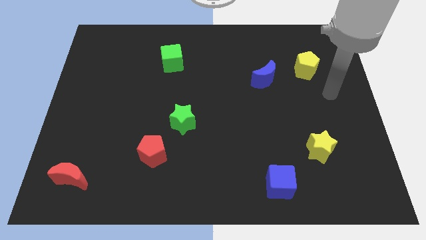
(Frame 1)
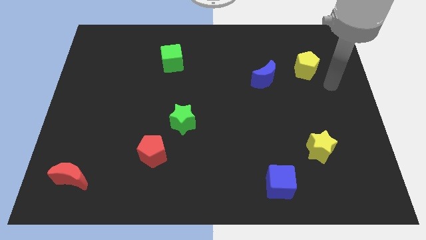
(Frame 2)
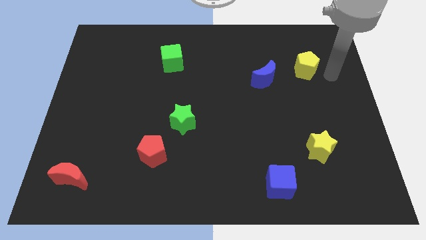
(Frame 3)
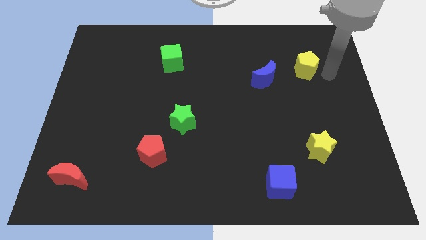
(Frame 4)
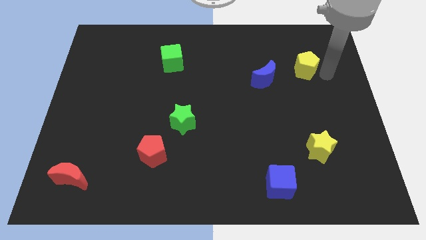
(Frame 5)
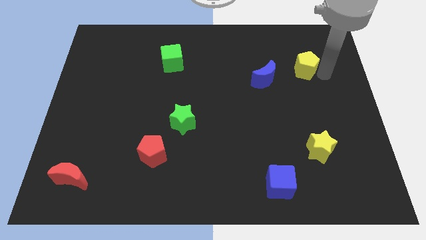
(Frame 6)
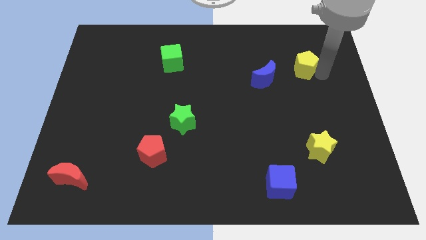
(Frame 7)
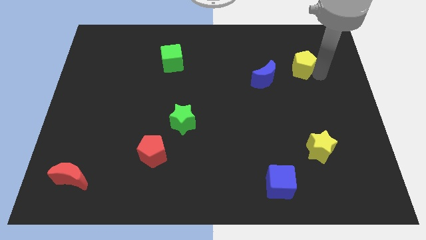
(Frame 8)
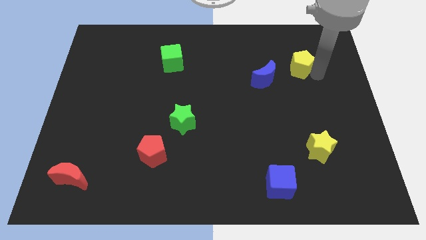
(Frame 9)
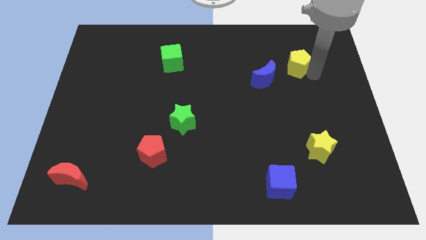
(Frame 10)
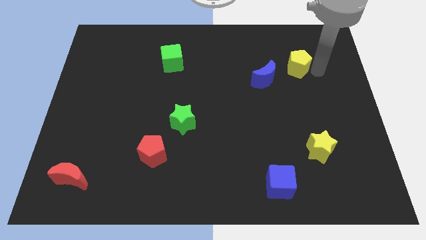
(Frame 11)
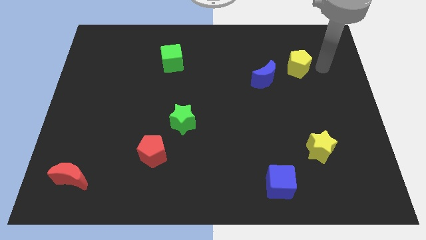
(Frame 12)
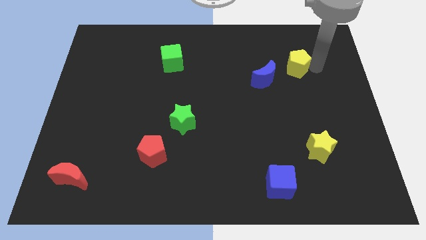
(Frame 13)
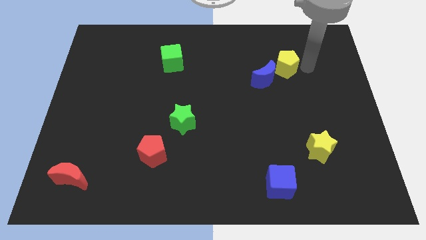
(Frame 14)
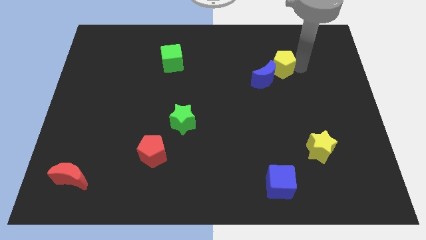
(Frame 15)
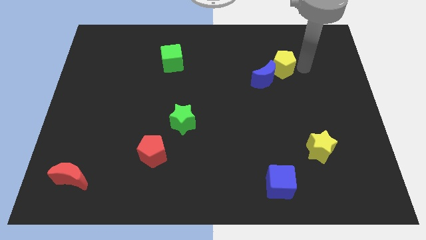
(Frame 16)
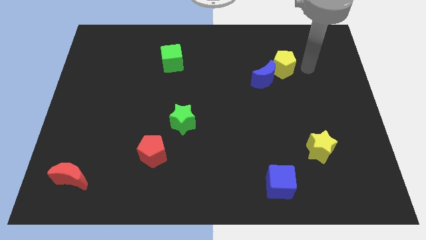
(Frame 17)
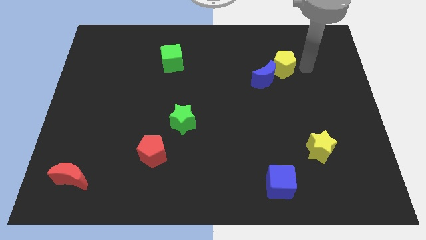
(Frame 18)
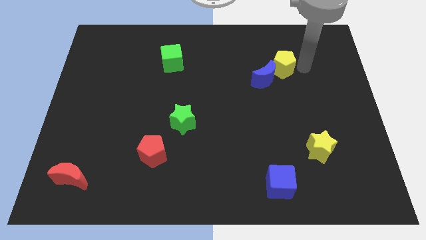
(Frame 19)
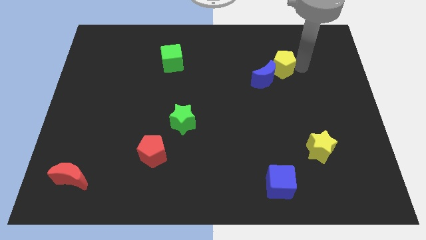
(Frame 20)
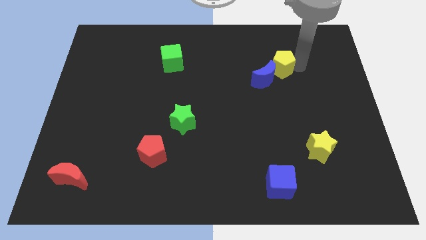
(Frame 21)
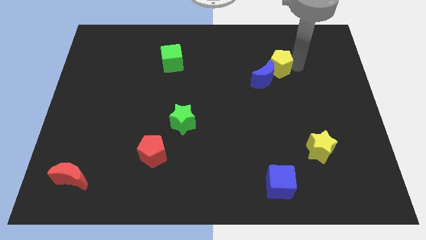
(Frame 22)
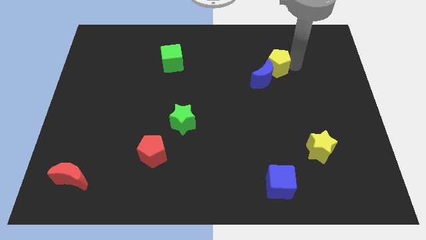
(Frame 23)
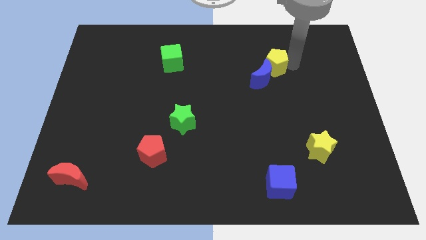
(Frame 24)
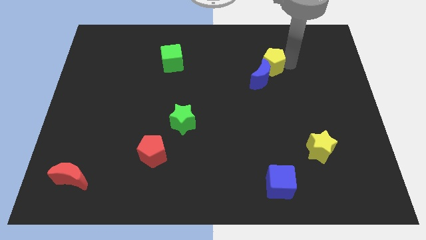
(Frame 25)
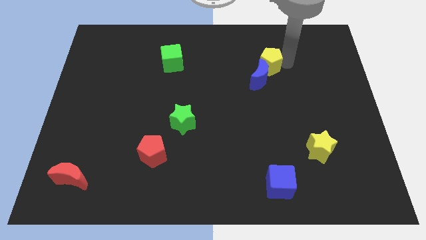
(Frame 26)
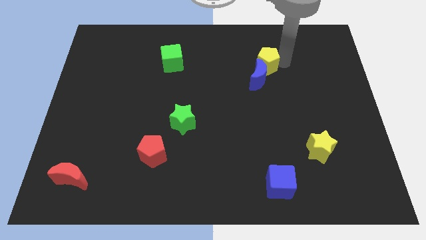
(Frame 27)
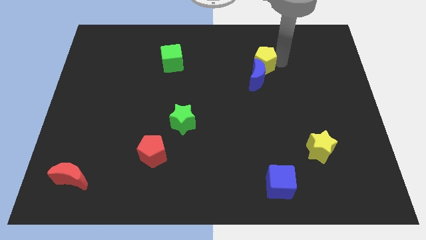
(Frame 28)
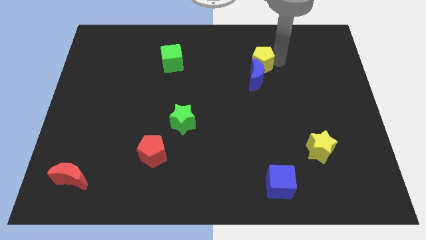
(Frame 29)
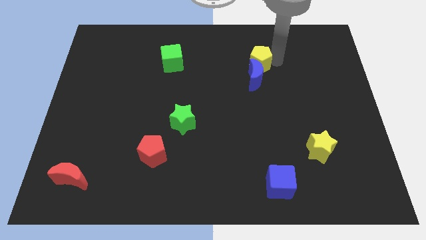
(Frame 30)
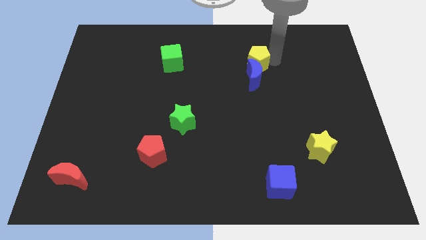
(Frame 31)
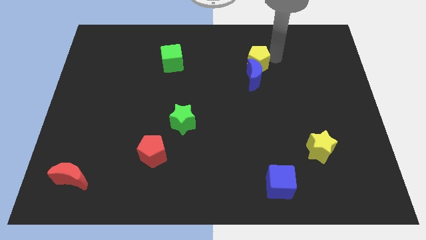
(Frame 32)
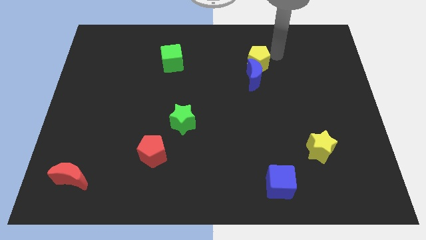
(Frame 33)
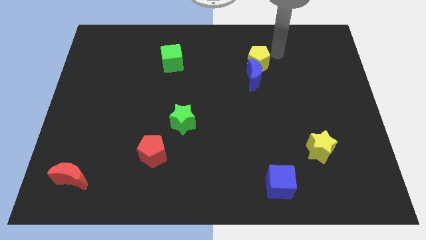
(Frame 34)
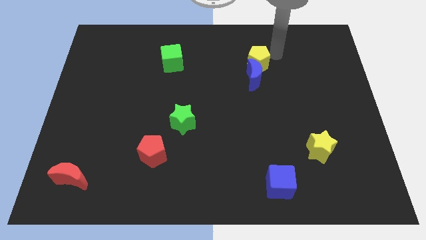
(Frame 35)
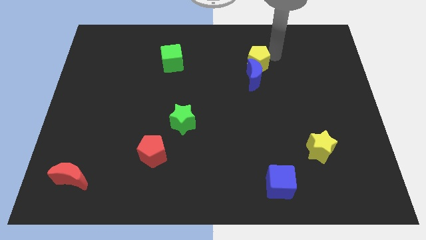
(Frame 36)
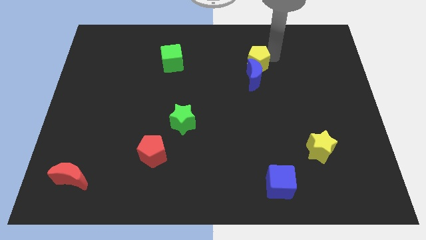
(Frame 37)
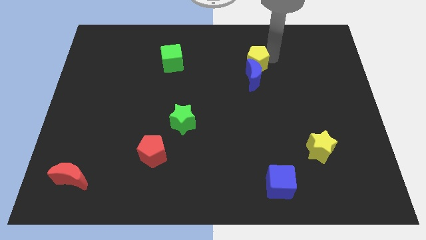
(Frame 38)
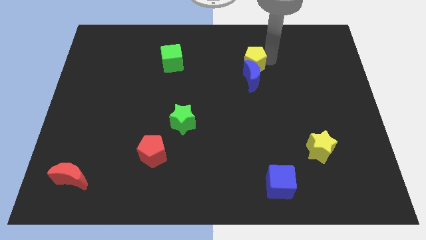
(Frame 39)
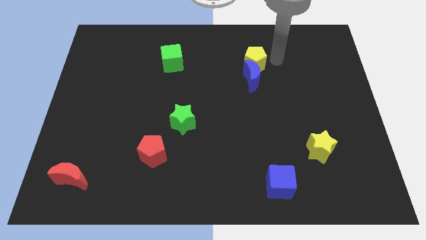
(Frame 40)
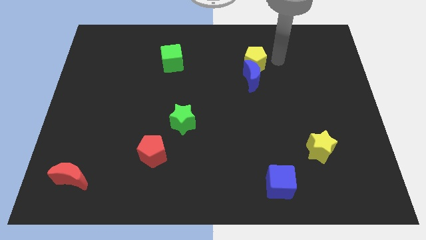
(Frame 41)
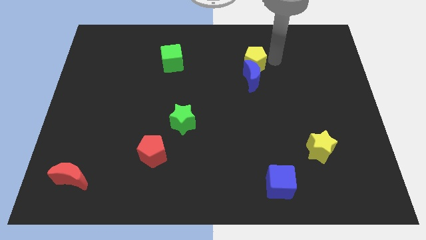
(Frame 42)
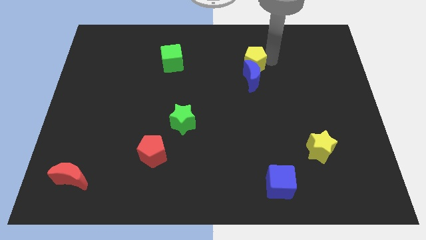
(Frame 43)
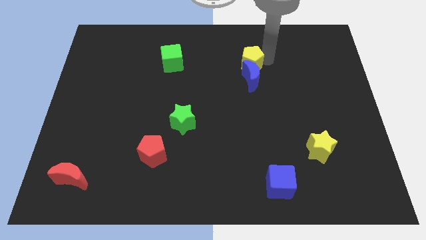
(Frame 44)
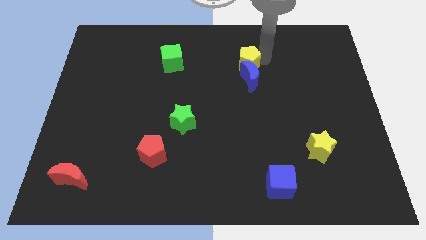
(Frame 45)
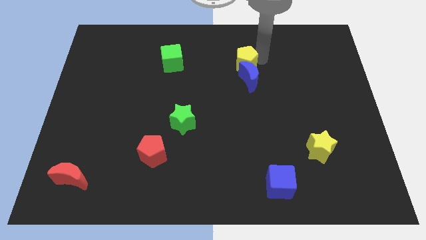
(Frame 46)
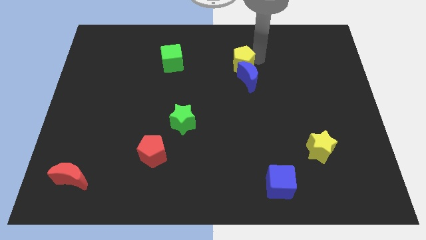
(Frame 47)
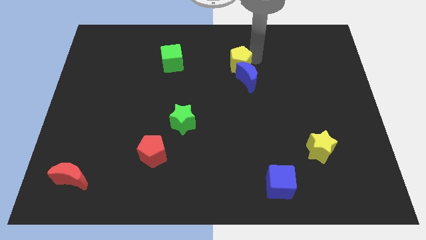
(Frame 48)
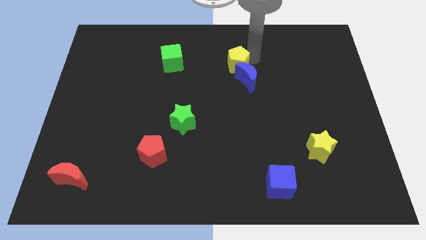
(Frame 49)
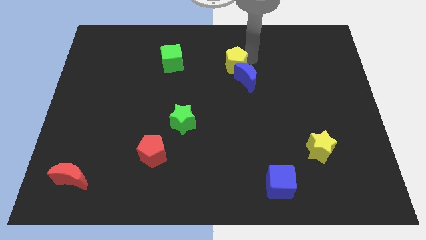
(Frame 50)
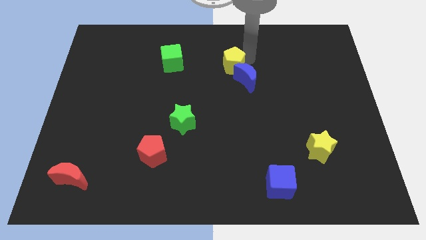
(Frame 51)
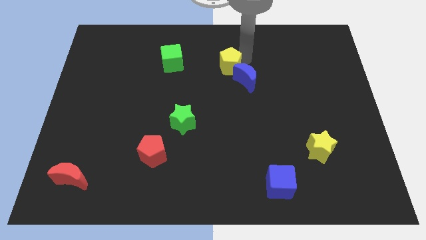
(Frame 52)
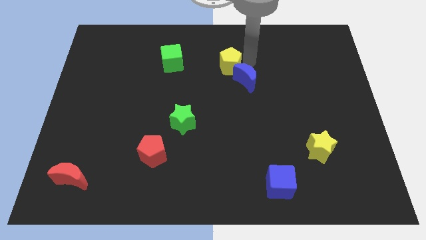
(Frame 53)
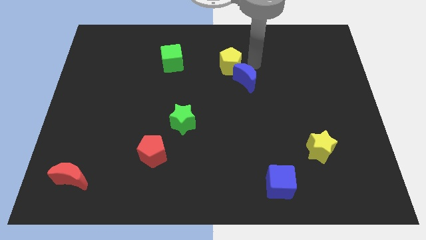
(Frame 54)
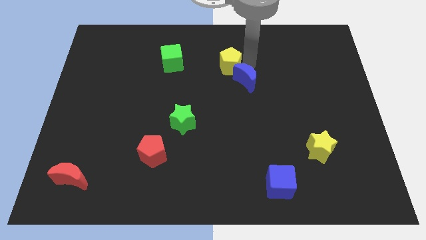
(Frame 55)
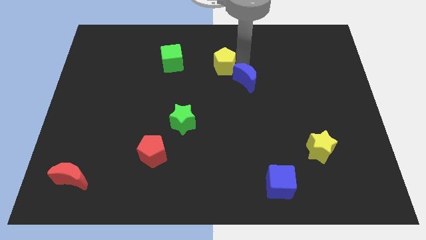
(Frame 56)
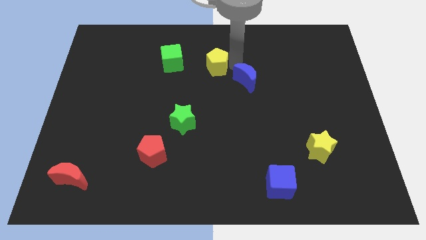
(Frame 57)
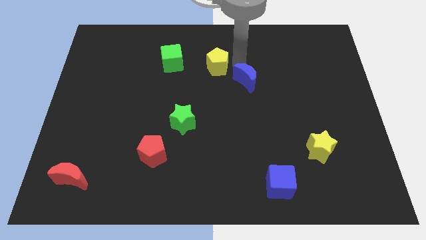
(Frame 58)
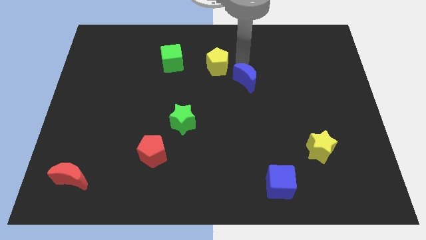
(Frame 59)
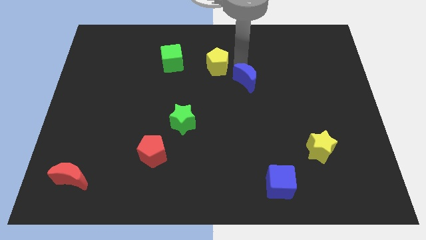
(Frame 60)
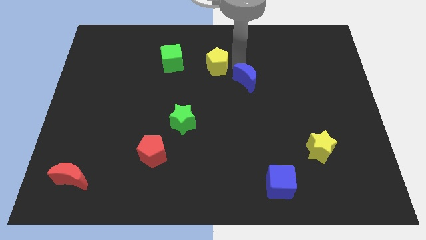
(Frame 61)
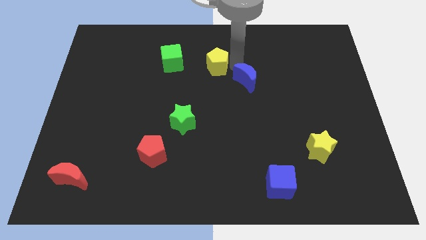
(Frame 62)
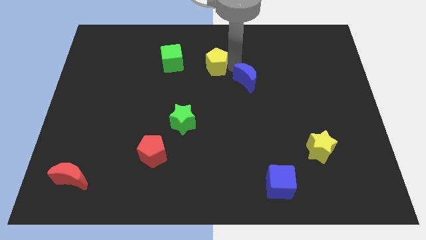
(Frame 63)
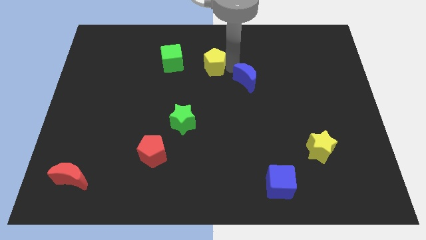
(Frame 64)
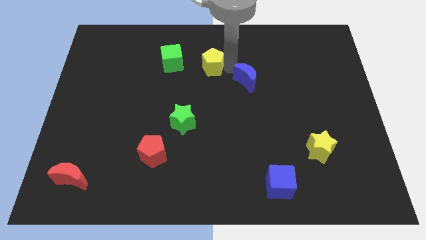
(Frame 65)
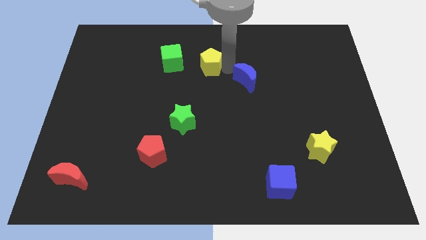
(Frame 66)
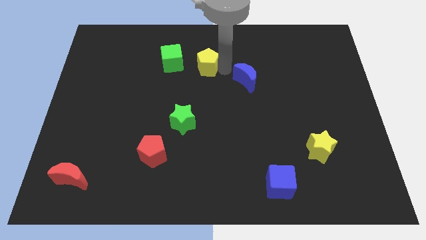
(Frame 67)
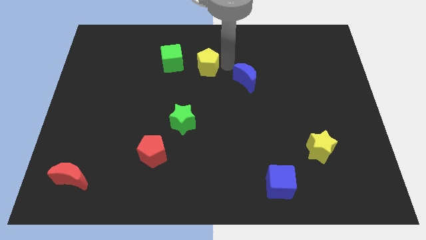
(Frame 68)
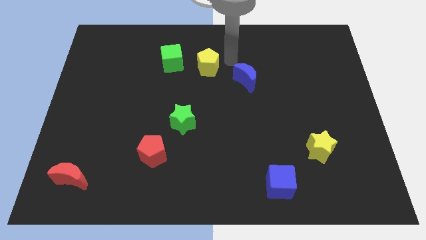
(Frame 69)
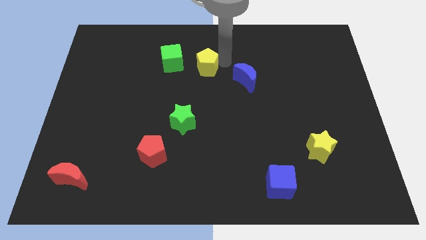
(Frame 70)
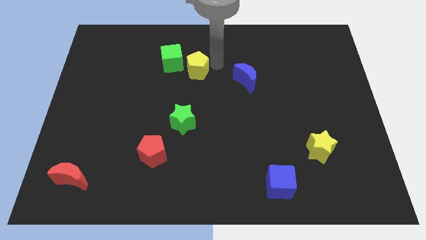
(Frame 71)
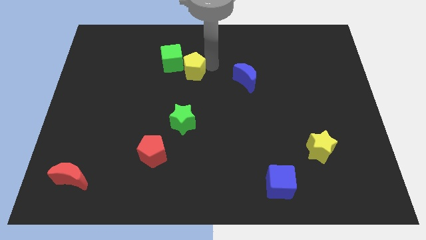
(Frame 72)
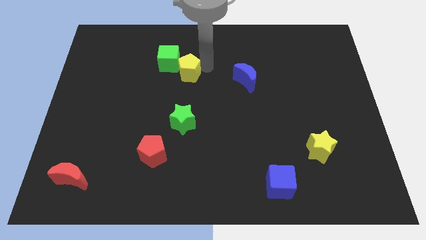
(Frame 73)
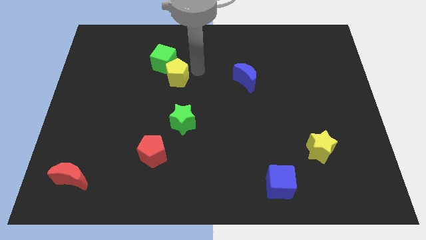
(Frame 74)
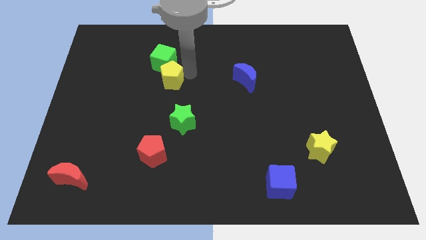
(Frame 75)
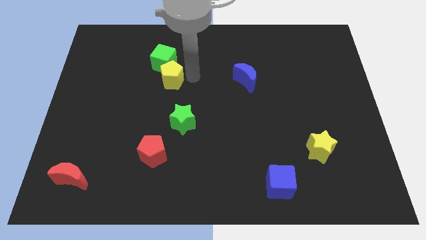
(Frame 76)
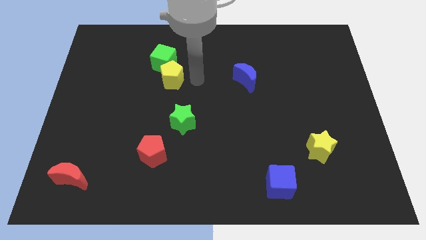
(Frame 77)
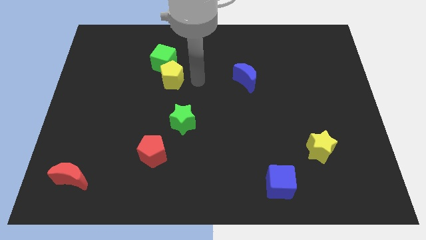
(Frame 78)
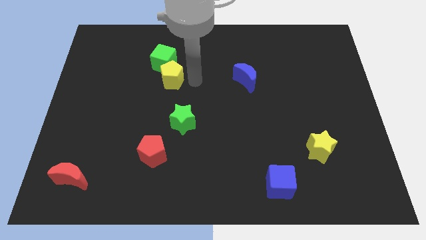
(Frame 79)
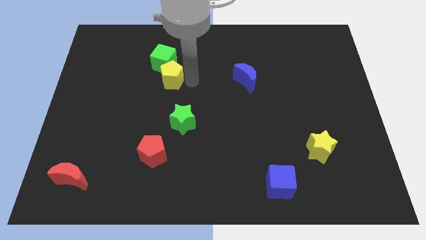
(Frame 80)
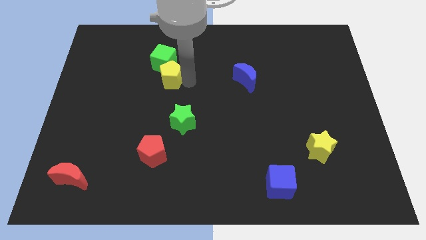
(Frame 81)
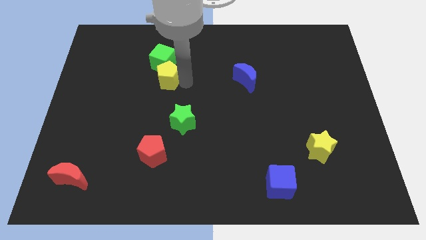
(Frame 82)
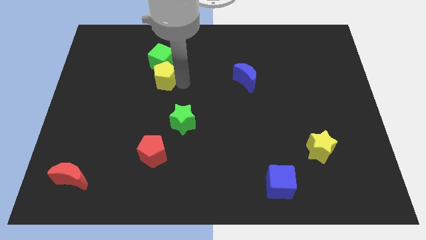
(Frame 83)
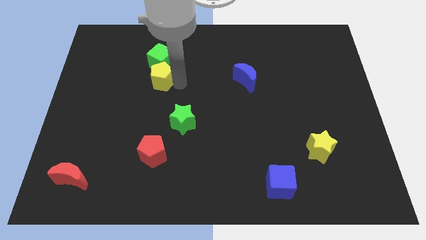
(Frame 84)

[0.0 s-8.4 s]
slide the yellow pentagon to the bottom left of the green cube
